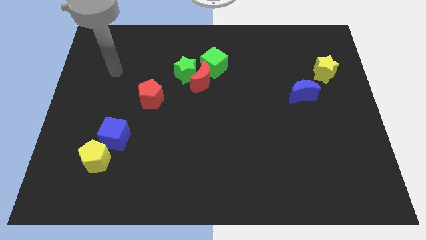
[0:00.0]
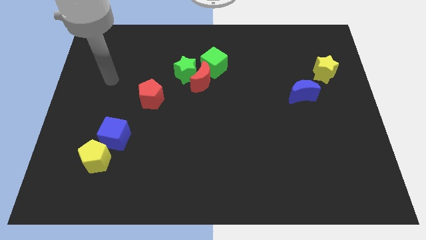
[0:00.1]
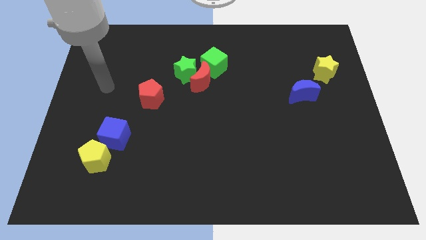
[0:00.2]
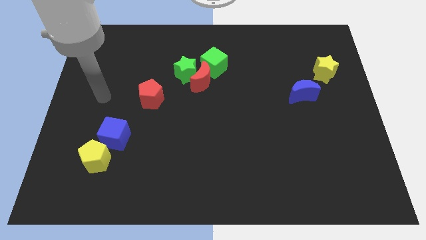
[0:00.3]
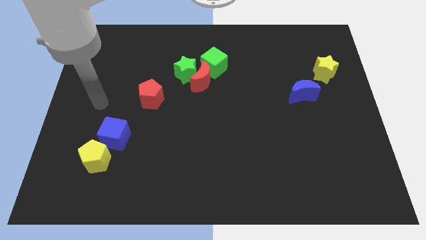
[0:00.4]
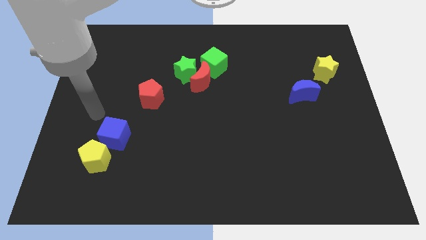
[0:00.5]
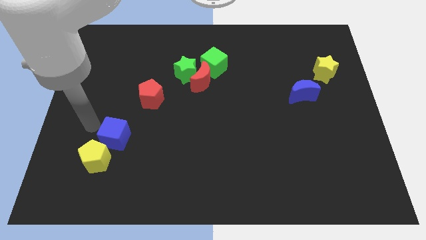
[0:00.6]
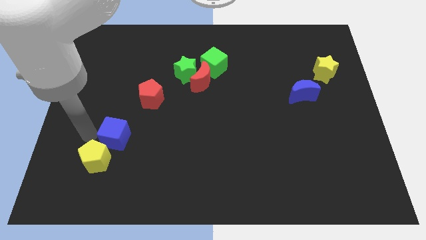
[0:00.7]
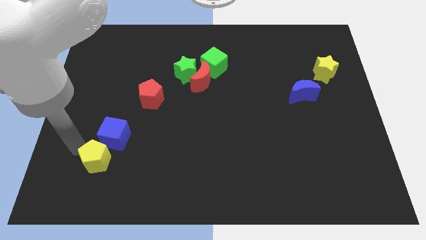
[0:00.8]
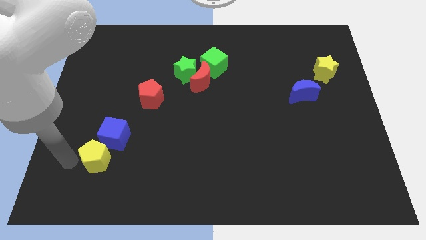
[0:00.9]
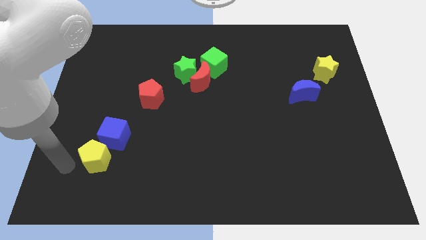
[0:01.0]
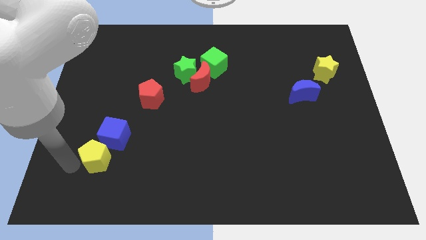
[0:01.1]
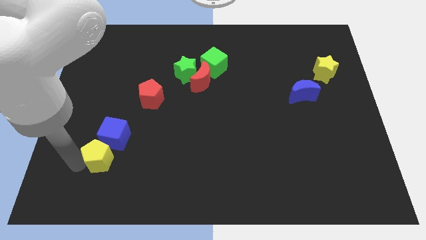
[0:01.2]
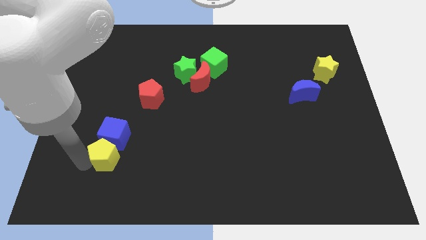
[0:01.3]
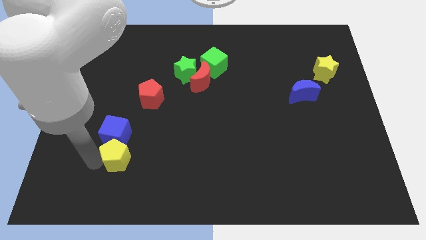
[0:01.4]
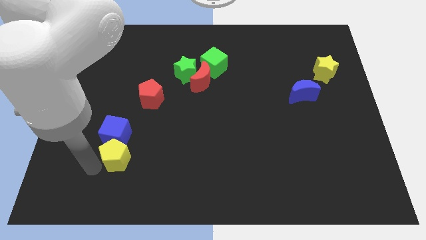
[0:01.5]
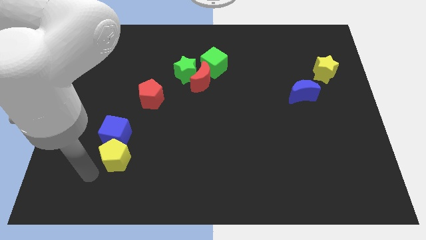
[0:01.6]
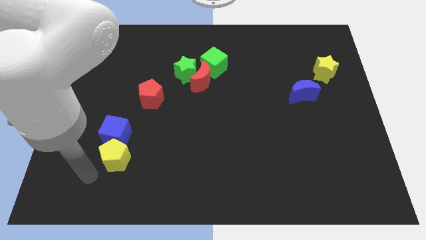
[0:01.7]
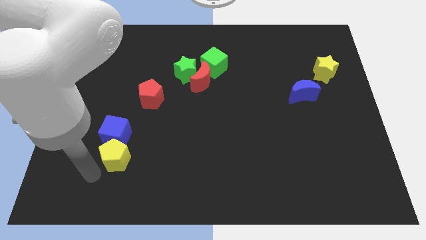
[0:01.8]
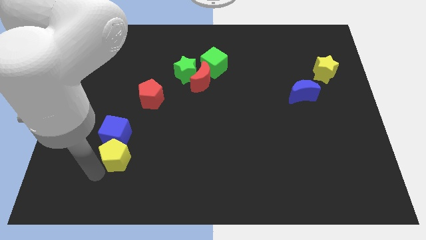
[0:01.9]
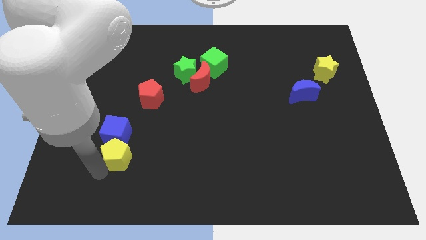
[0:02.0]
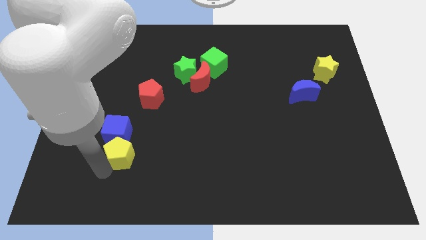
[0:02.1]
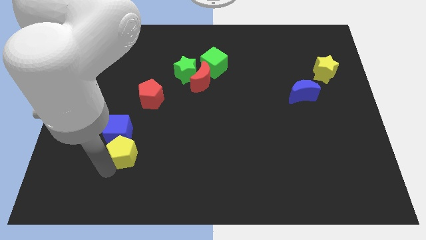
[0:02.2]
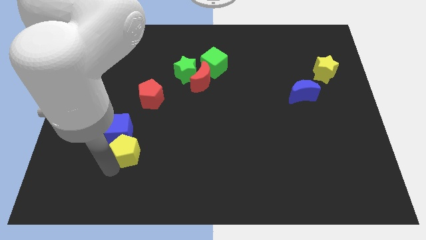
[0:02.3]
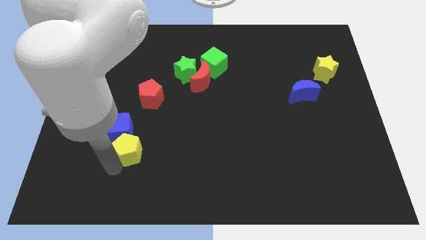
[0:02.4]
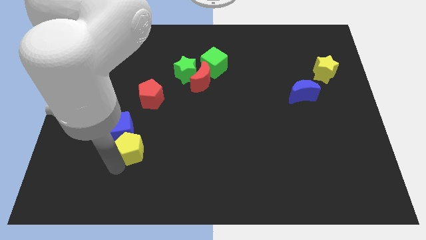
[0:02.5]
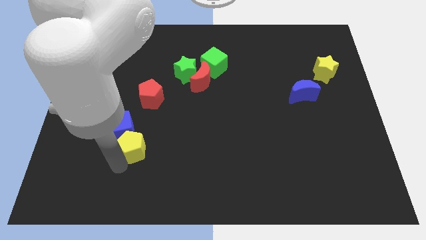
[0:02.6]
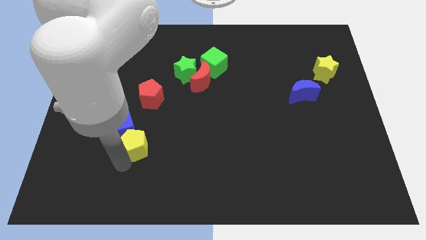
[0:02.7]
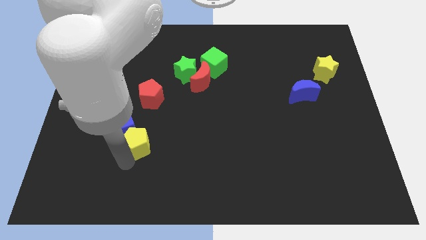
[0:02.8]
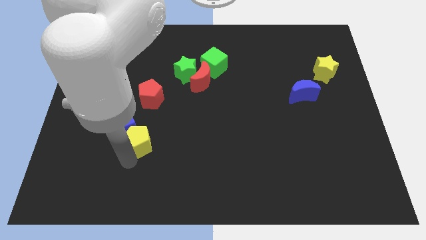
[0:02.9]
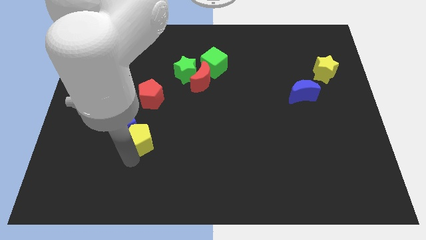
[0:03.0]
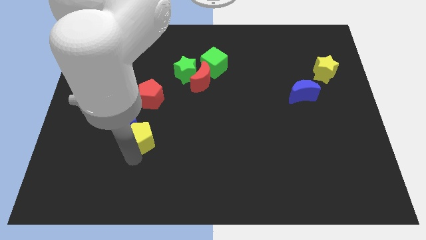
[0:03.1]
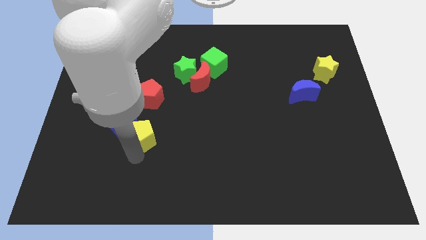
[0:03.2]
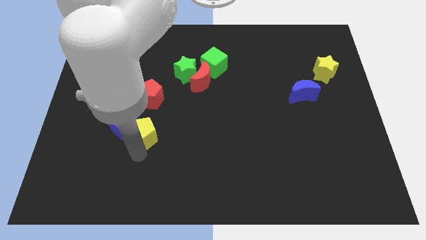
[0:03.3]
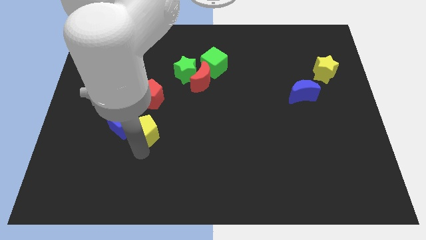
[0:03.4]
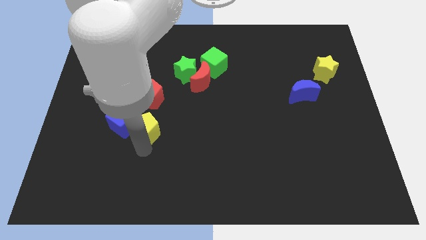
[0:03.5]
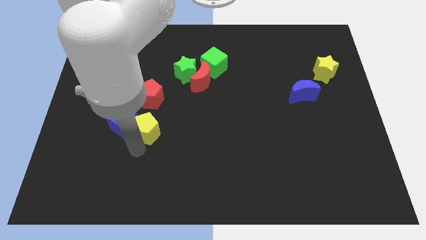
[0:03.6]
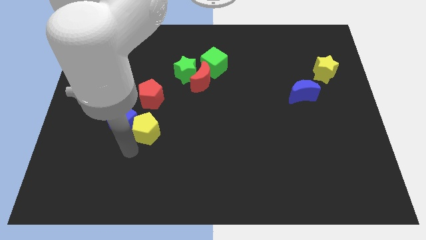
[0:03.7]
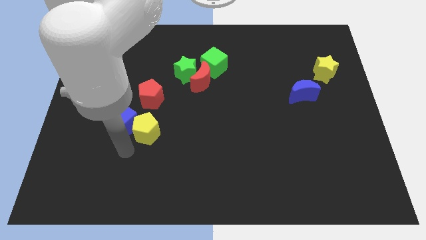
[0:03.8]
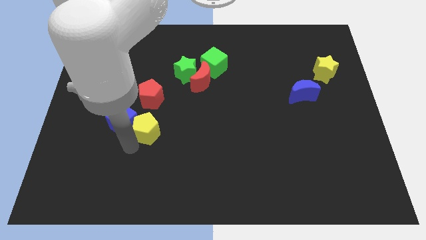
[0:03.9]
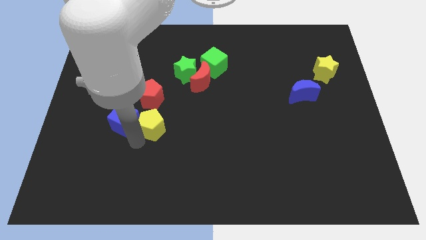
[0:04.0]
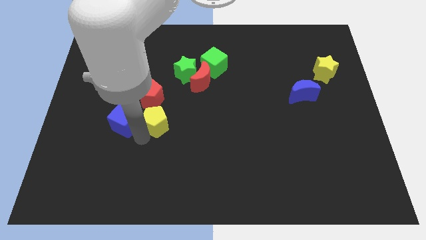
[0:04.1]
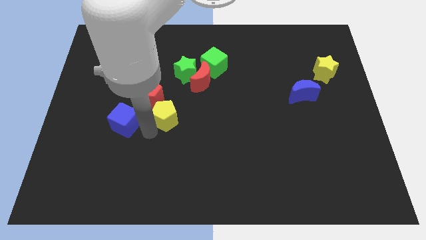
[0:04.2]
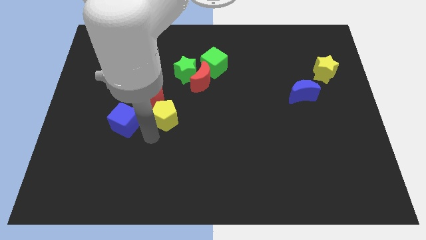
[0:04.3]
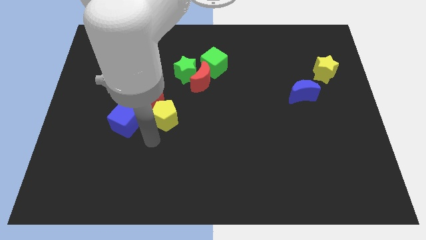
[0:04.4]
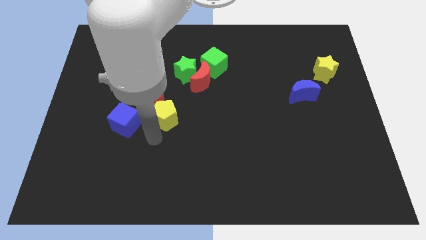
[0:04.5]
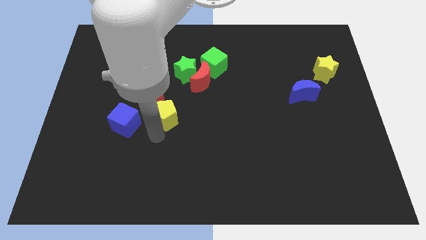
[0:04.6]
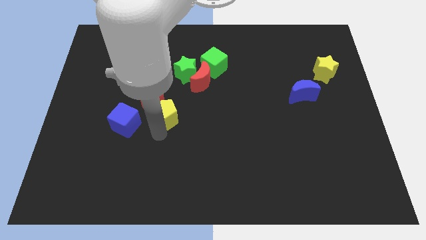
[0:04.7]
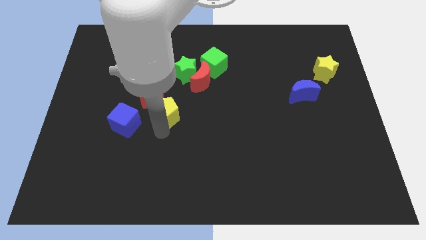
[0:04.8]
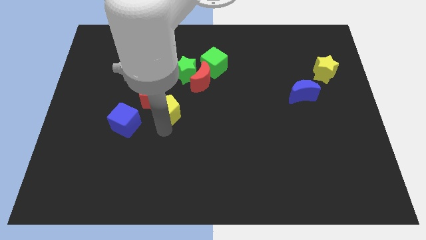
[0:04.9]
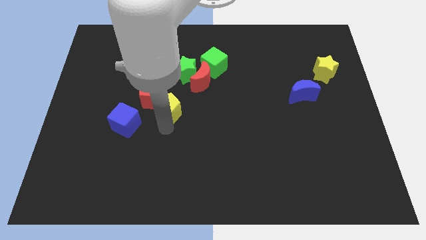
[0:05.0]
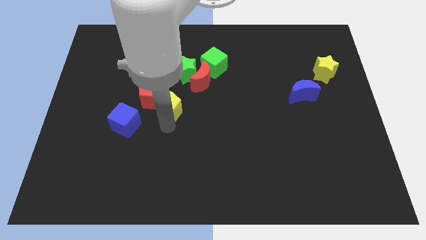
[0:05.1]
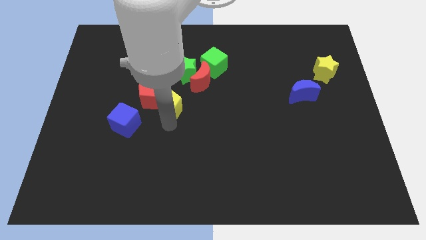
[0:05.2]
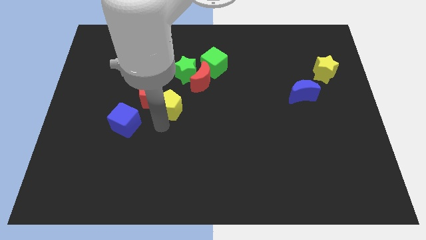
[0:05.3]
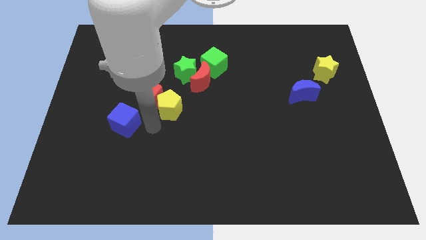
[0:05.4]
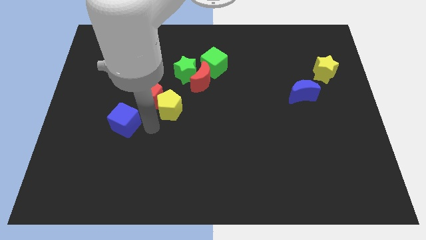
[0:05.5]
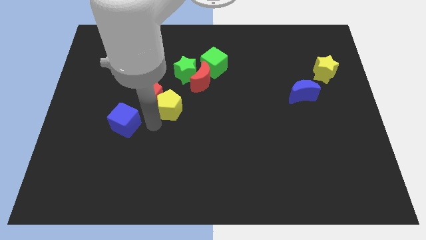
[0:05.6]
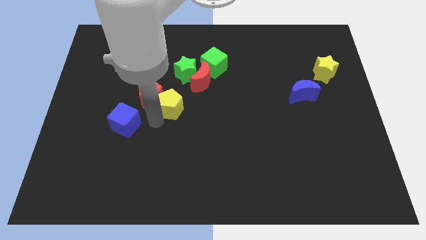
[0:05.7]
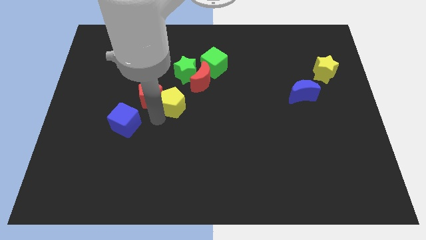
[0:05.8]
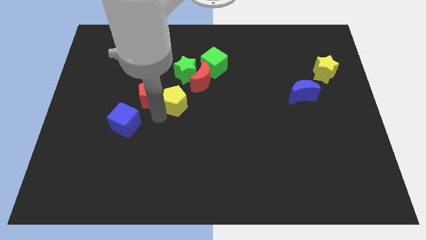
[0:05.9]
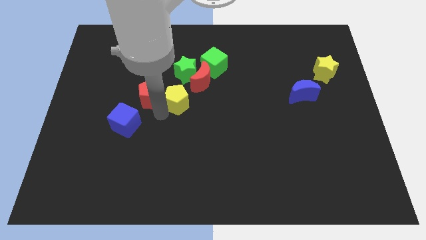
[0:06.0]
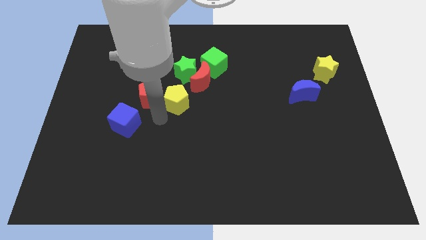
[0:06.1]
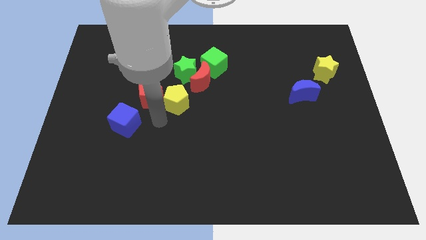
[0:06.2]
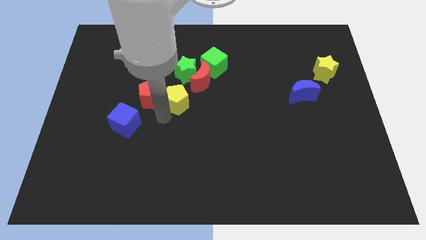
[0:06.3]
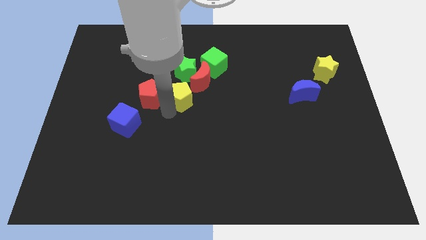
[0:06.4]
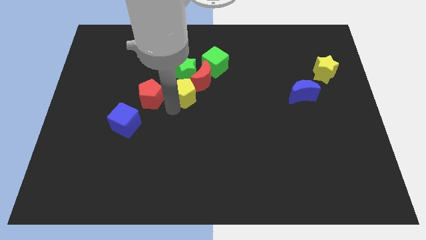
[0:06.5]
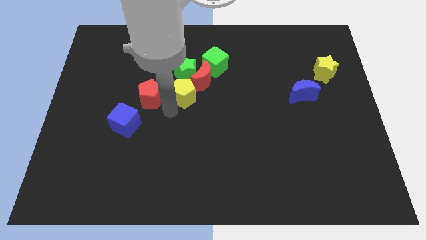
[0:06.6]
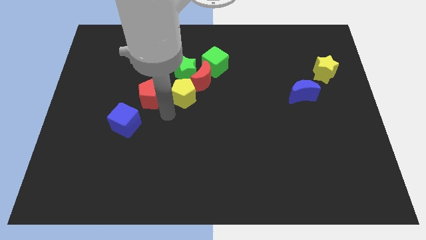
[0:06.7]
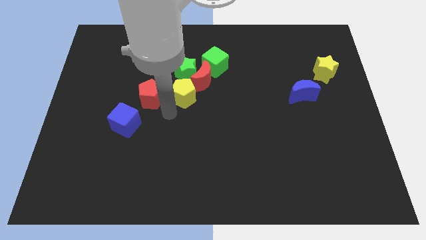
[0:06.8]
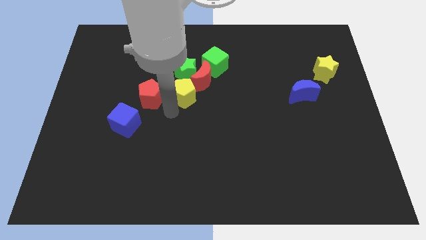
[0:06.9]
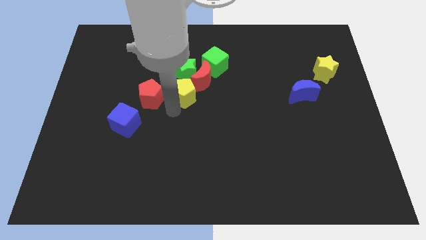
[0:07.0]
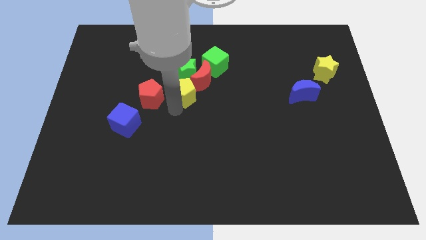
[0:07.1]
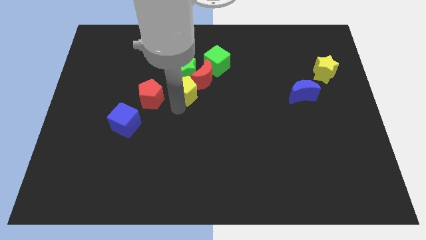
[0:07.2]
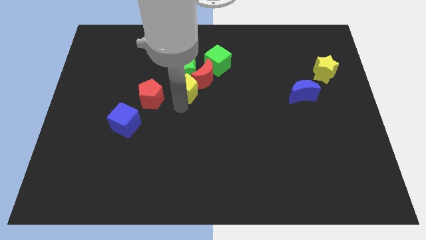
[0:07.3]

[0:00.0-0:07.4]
push the yellow pentagon close to the red moon
